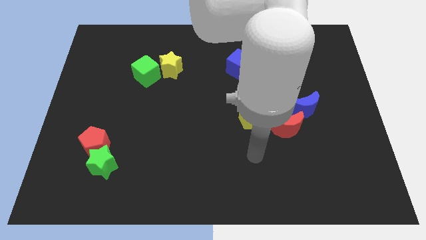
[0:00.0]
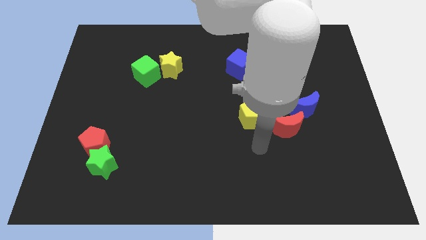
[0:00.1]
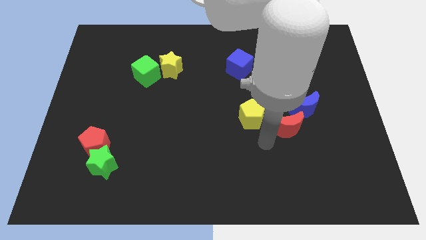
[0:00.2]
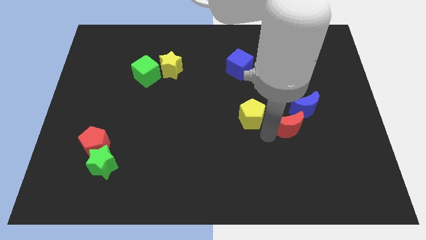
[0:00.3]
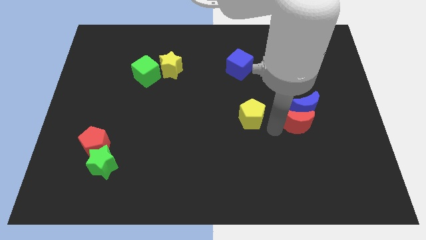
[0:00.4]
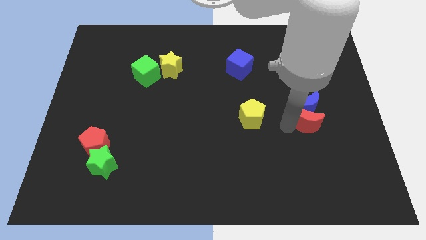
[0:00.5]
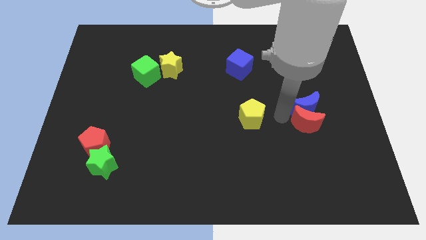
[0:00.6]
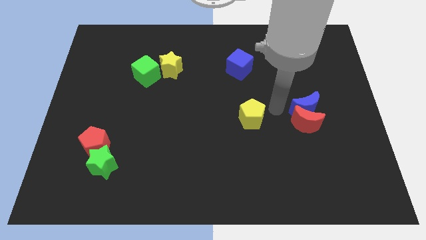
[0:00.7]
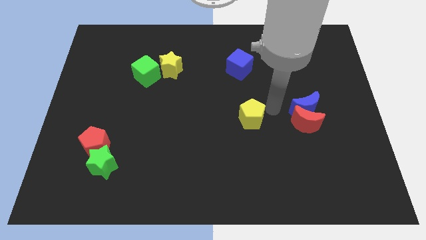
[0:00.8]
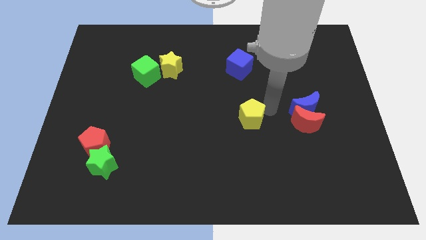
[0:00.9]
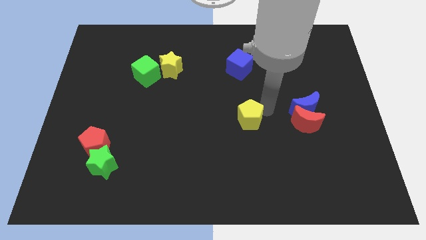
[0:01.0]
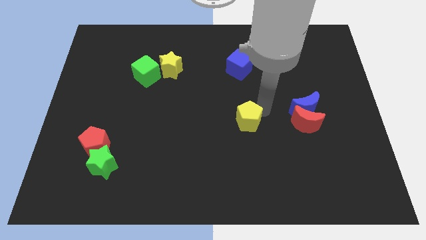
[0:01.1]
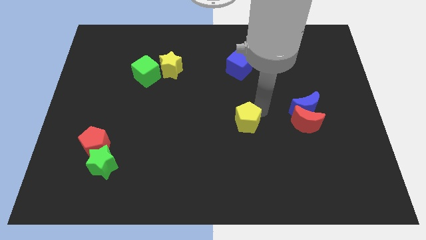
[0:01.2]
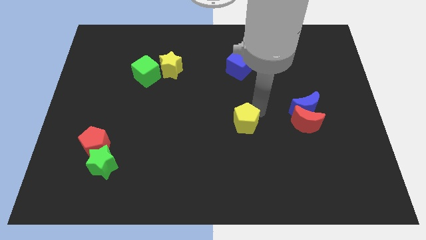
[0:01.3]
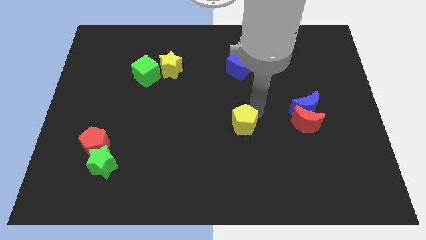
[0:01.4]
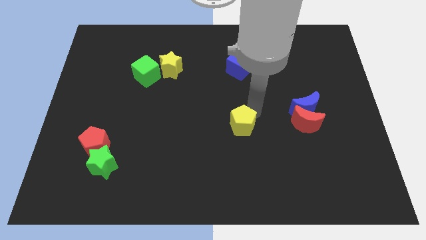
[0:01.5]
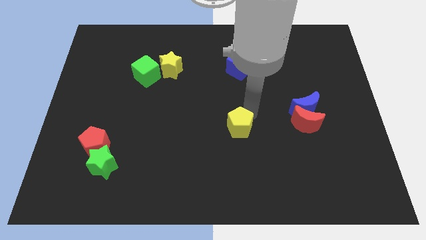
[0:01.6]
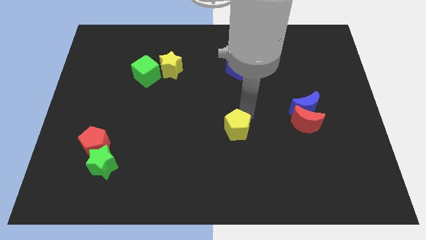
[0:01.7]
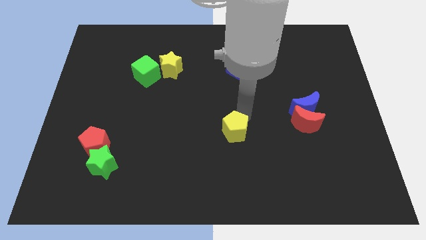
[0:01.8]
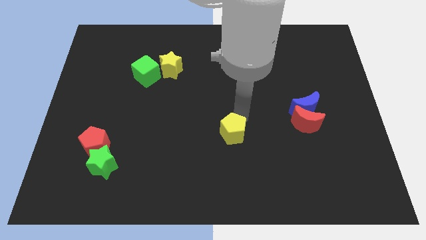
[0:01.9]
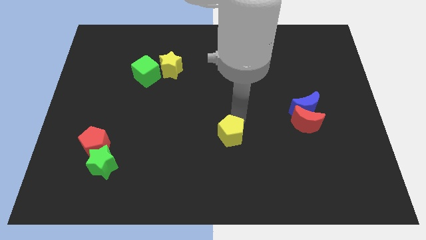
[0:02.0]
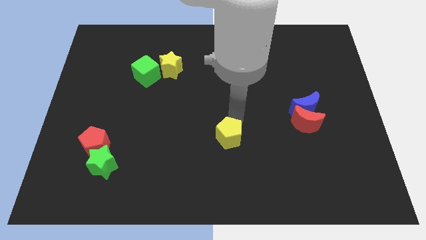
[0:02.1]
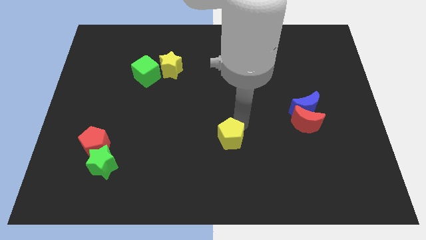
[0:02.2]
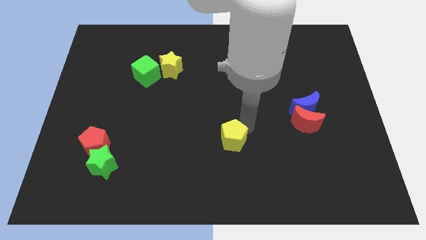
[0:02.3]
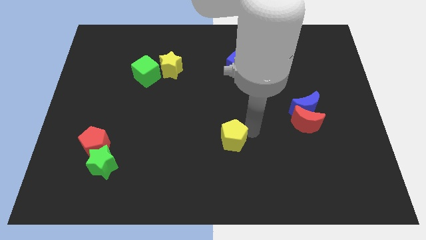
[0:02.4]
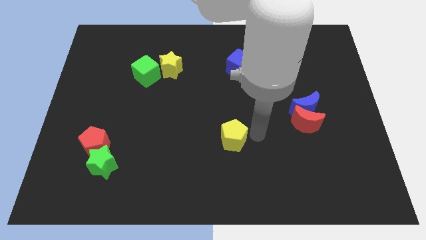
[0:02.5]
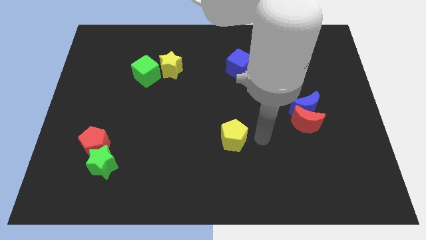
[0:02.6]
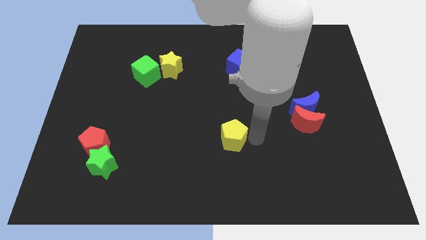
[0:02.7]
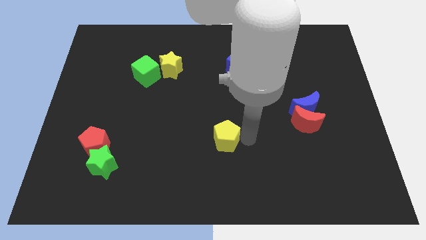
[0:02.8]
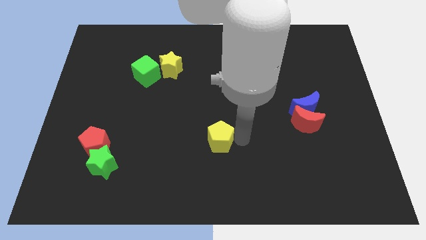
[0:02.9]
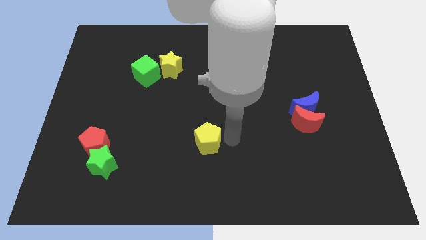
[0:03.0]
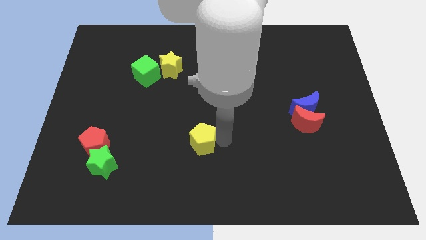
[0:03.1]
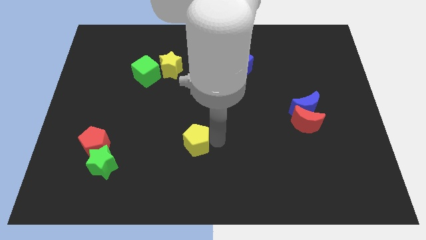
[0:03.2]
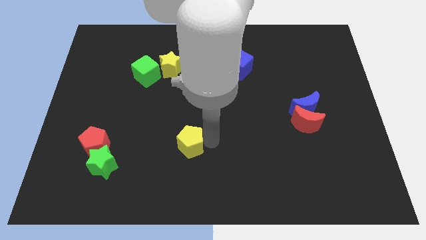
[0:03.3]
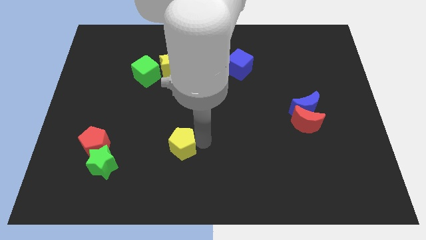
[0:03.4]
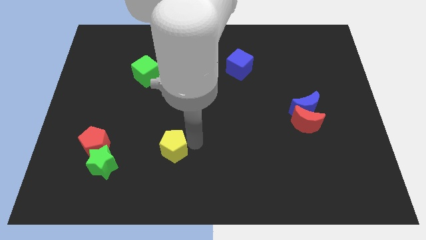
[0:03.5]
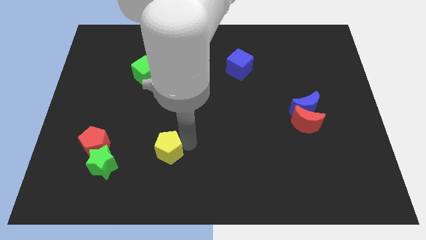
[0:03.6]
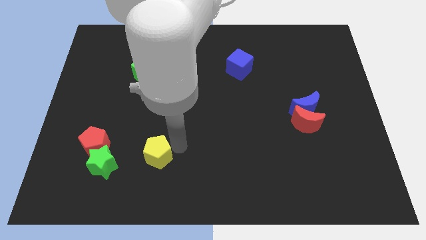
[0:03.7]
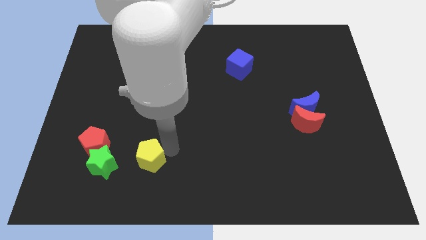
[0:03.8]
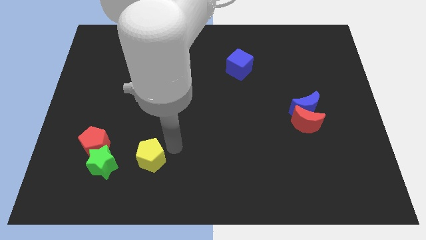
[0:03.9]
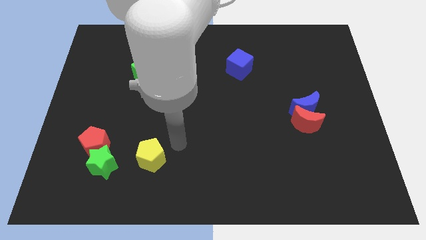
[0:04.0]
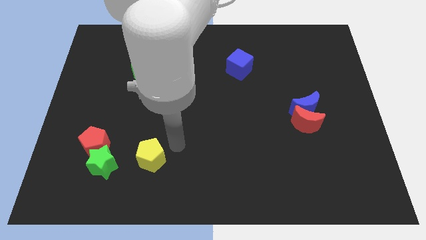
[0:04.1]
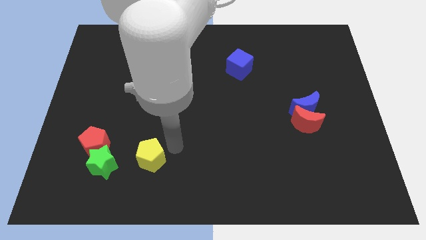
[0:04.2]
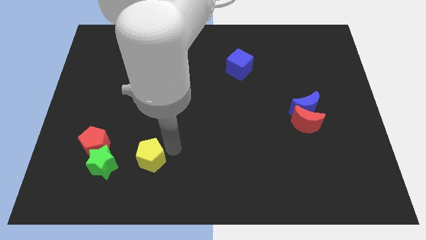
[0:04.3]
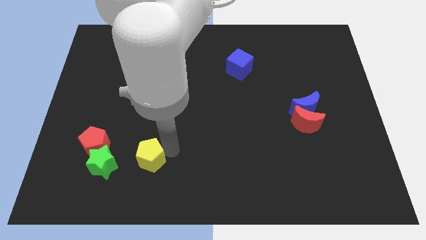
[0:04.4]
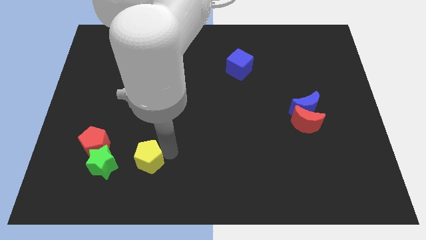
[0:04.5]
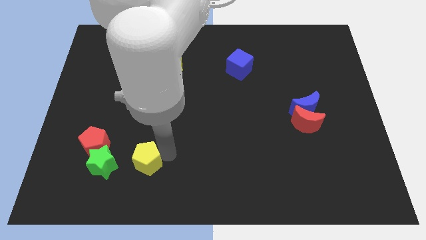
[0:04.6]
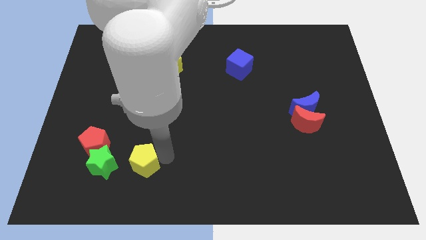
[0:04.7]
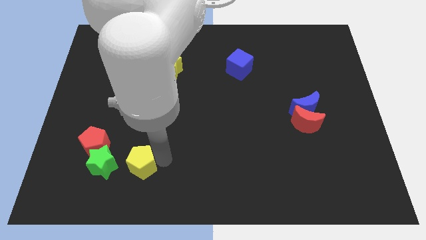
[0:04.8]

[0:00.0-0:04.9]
put the yellow pentagon to the bottom right side of the red pentagon

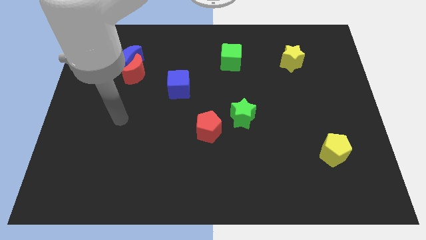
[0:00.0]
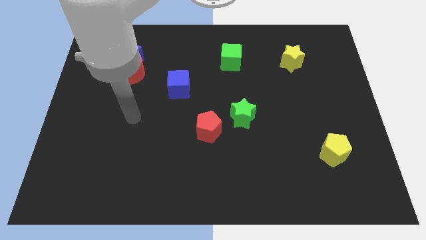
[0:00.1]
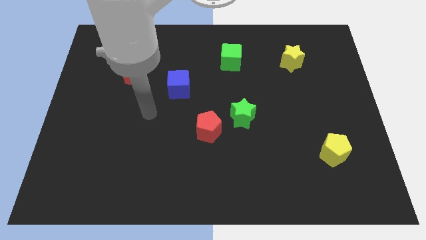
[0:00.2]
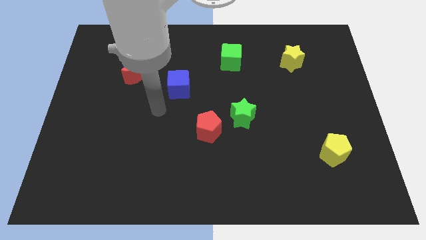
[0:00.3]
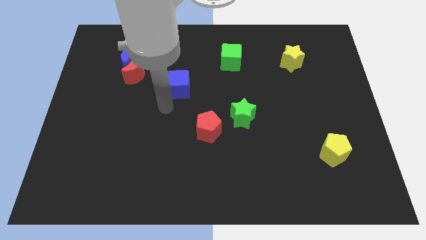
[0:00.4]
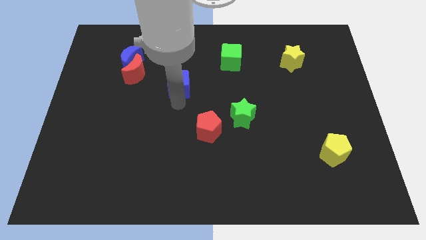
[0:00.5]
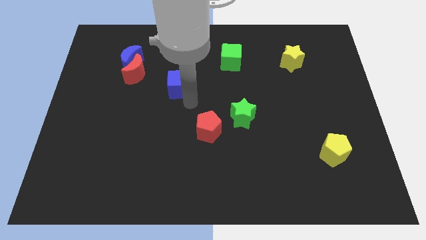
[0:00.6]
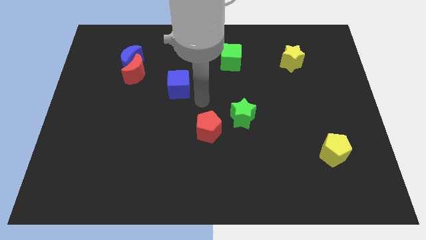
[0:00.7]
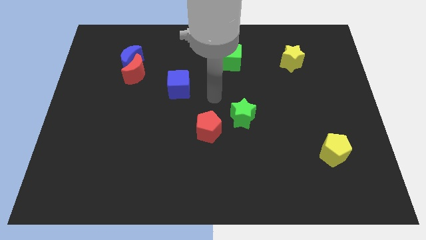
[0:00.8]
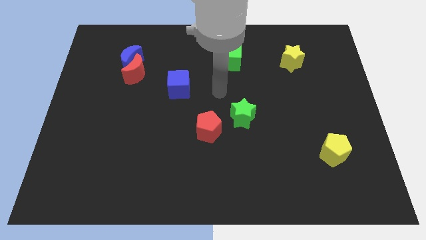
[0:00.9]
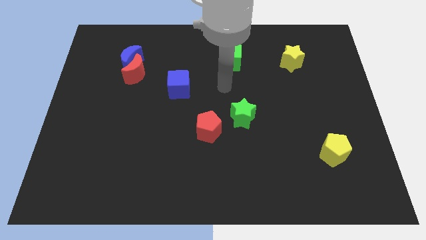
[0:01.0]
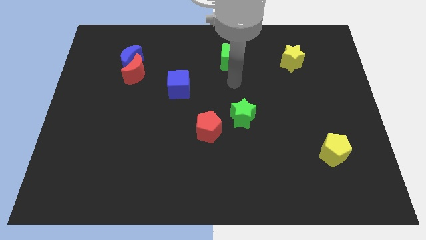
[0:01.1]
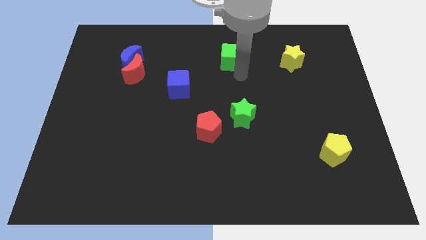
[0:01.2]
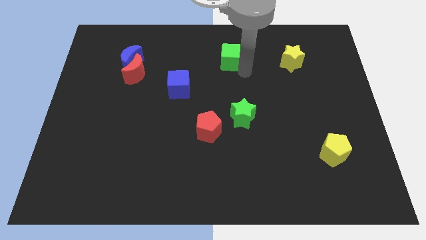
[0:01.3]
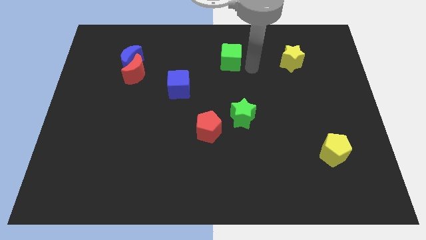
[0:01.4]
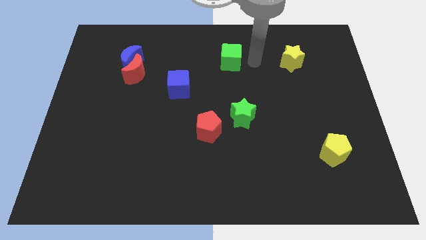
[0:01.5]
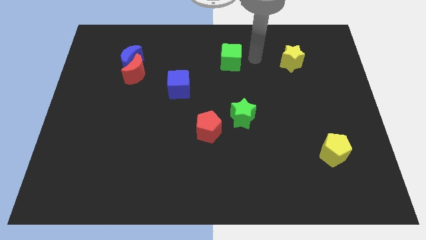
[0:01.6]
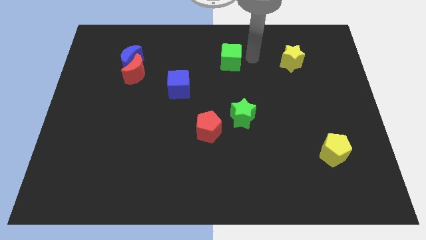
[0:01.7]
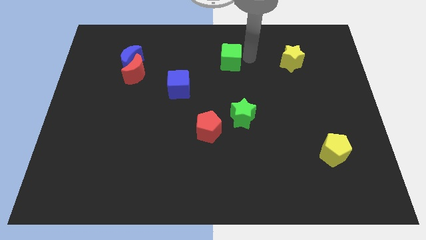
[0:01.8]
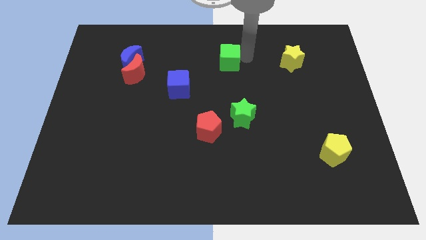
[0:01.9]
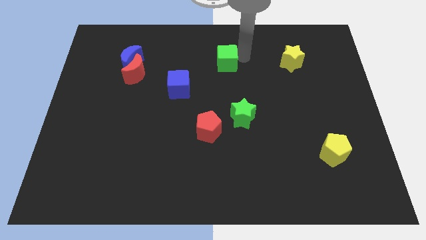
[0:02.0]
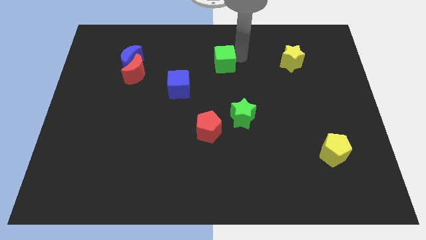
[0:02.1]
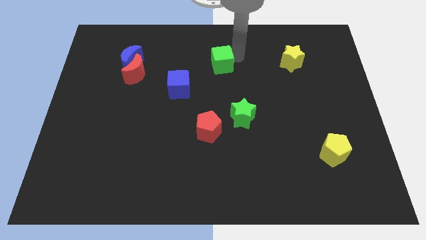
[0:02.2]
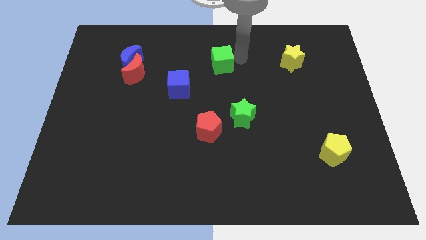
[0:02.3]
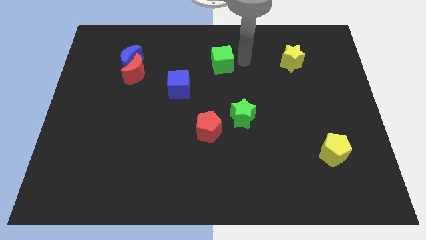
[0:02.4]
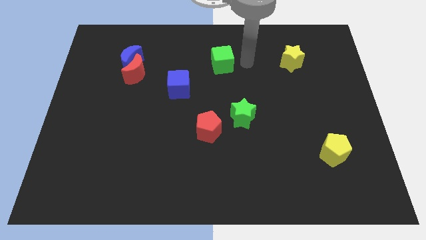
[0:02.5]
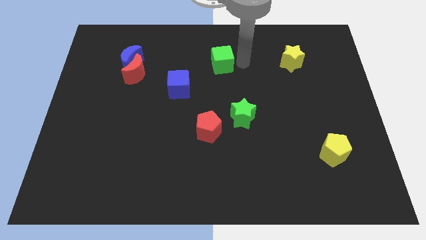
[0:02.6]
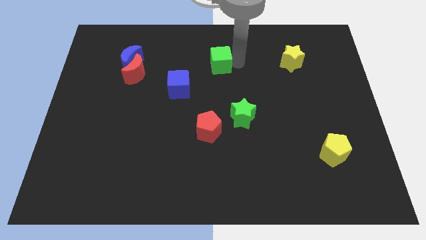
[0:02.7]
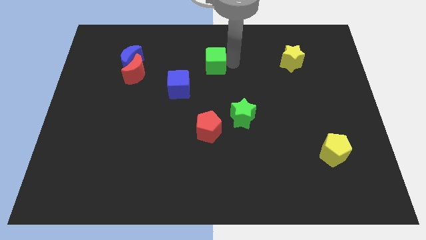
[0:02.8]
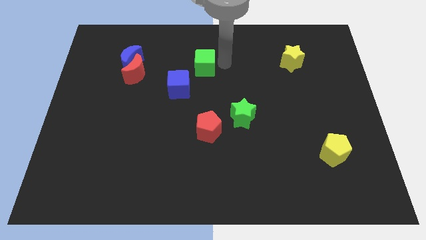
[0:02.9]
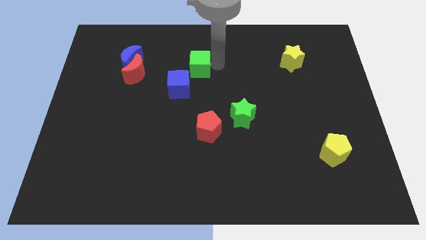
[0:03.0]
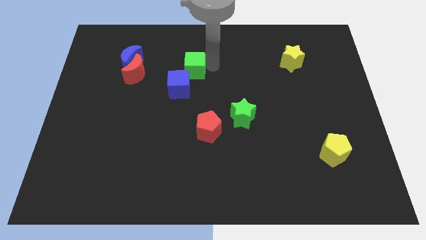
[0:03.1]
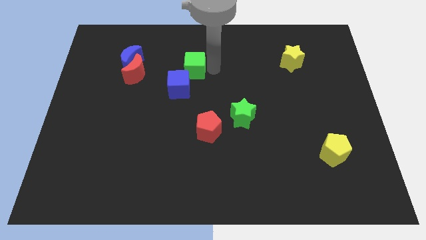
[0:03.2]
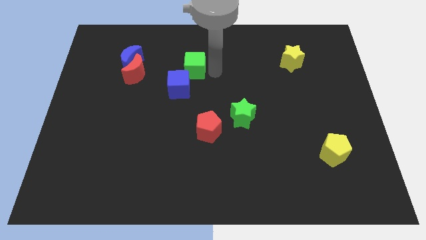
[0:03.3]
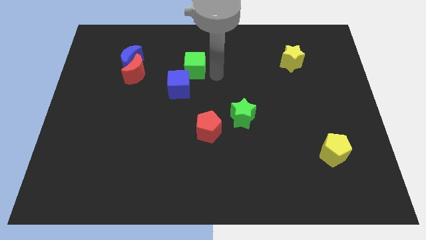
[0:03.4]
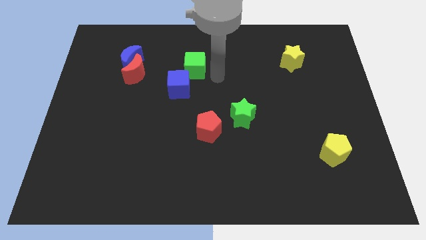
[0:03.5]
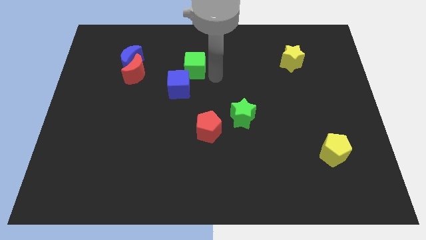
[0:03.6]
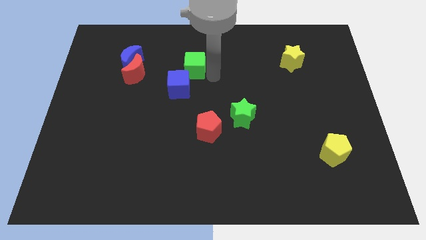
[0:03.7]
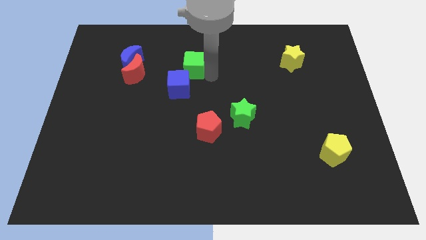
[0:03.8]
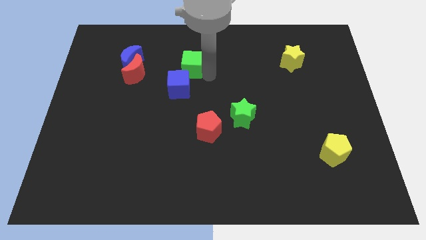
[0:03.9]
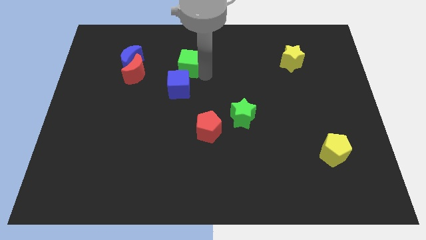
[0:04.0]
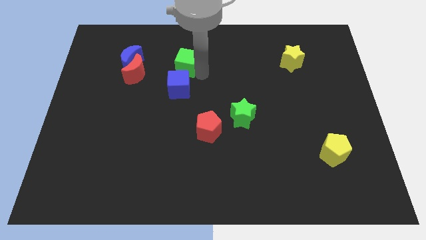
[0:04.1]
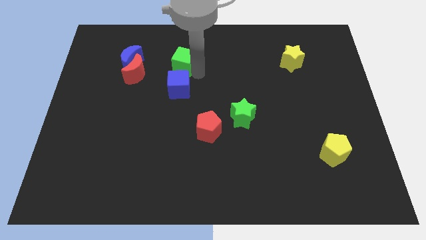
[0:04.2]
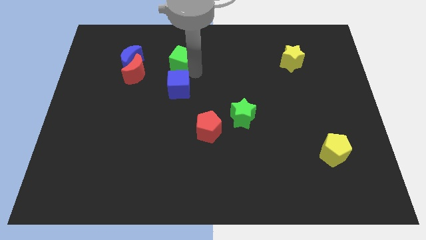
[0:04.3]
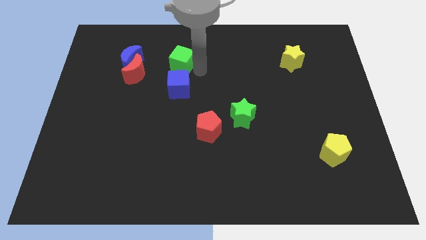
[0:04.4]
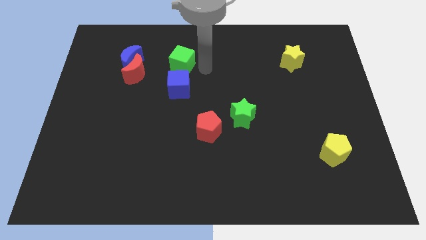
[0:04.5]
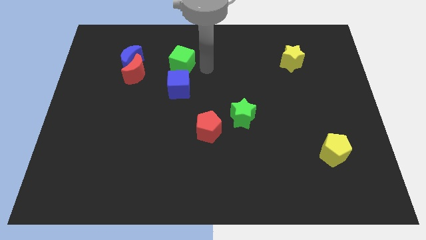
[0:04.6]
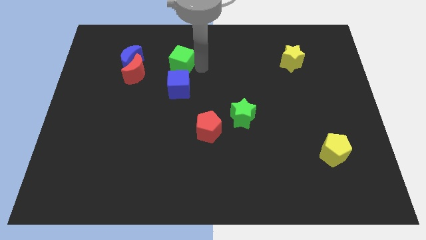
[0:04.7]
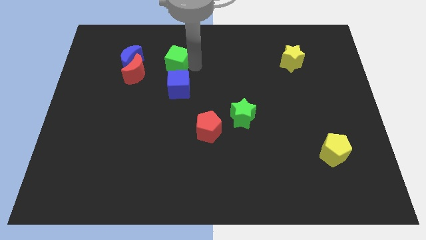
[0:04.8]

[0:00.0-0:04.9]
push the green cube to the top right side of the red moon
